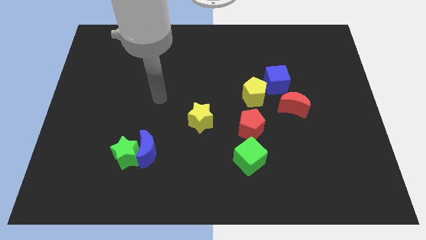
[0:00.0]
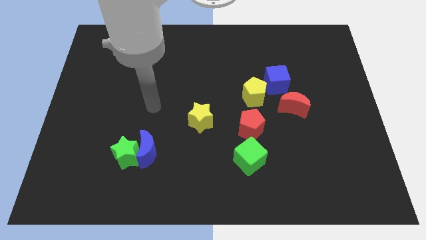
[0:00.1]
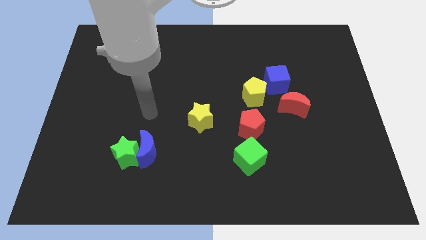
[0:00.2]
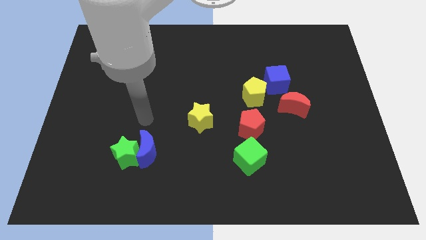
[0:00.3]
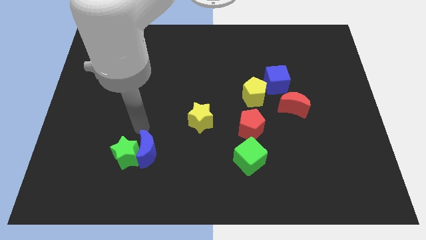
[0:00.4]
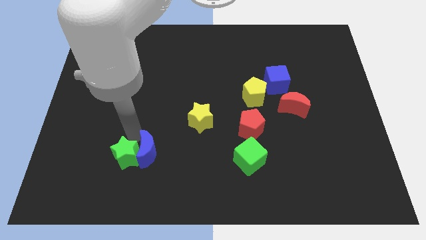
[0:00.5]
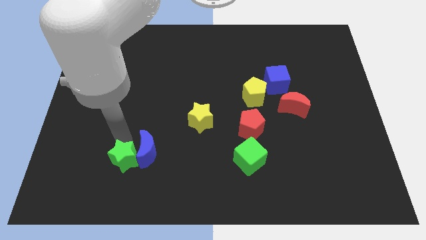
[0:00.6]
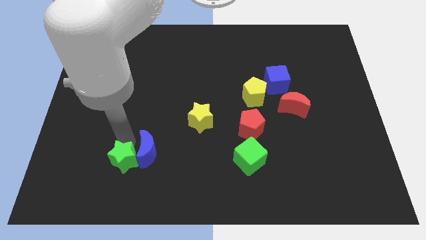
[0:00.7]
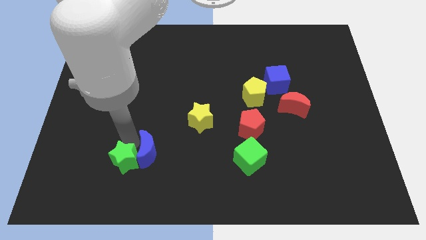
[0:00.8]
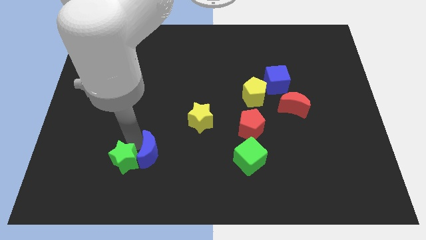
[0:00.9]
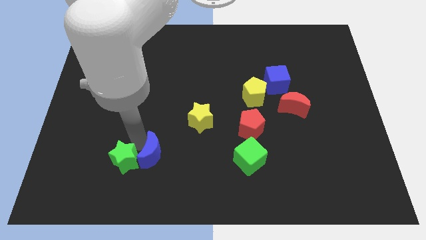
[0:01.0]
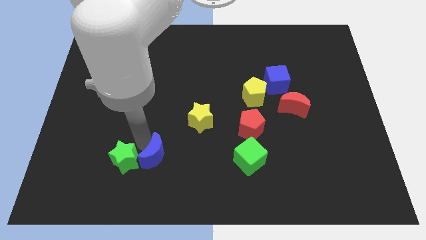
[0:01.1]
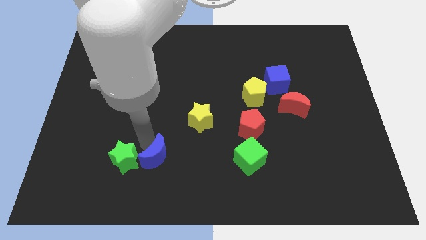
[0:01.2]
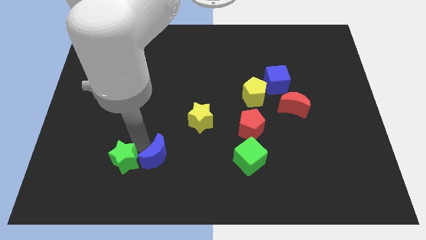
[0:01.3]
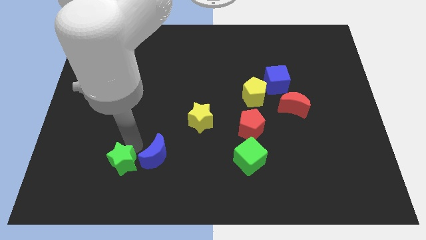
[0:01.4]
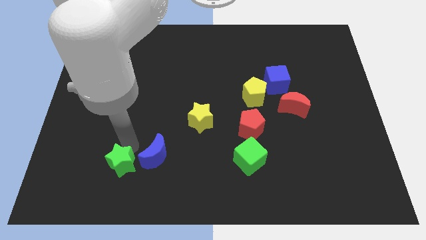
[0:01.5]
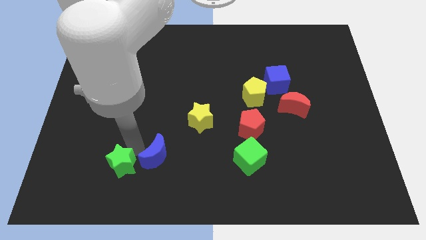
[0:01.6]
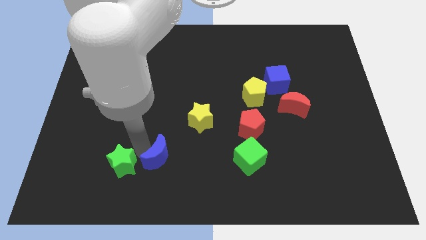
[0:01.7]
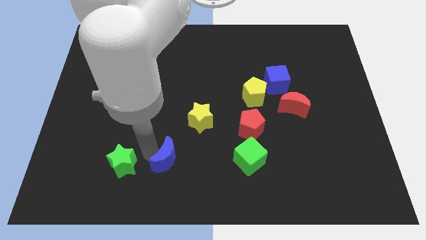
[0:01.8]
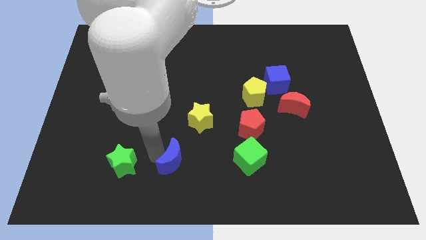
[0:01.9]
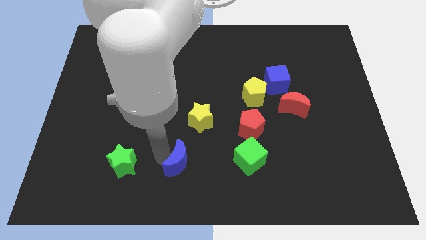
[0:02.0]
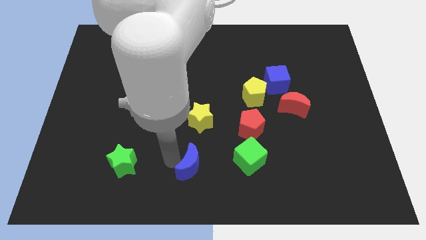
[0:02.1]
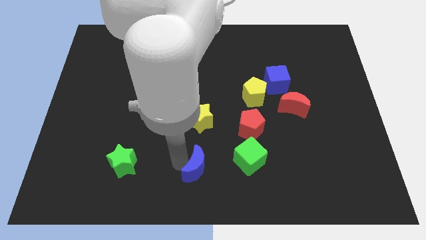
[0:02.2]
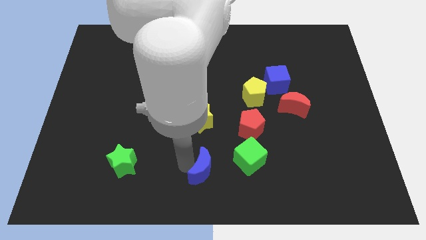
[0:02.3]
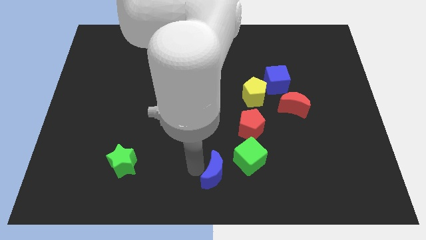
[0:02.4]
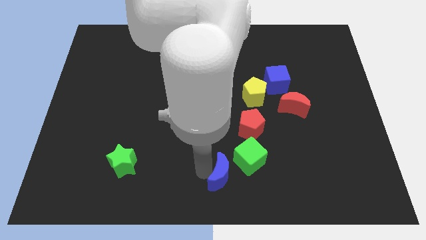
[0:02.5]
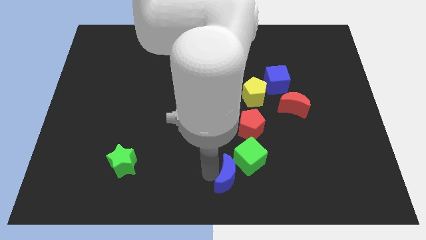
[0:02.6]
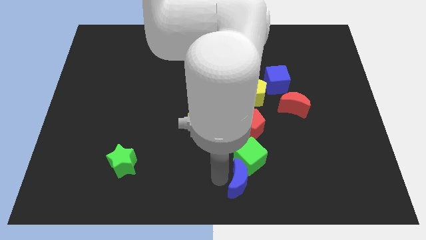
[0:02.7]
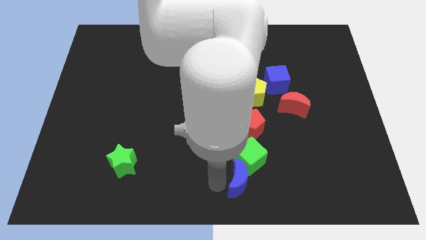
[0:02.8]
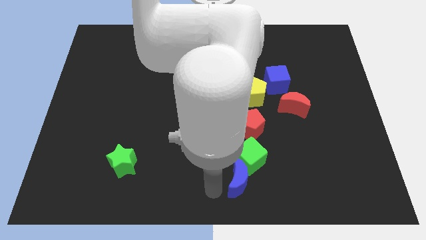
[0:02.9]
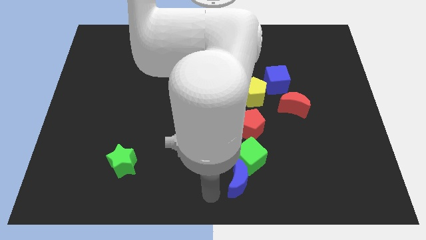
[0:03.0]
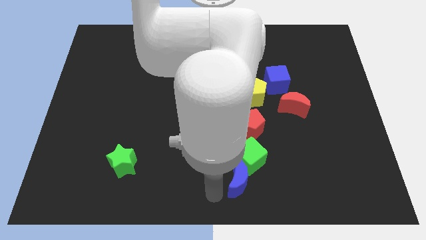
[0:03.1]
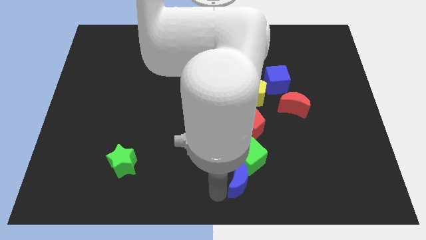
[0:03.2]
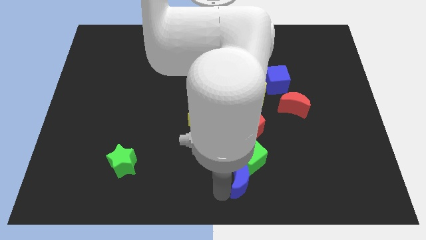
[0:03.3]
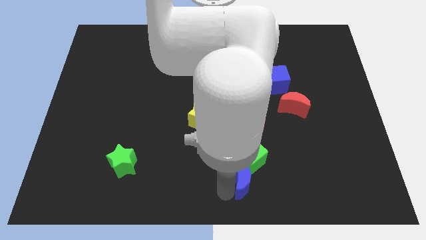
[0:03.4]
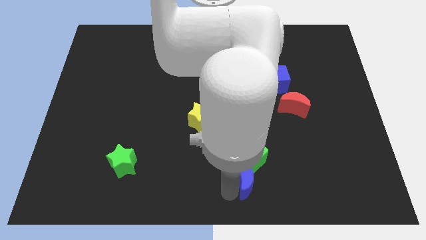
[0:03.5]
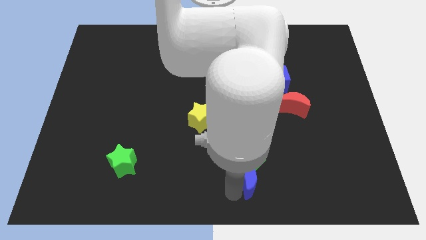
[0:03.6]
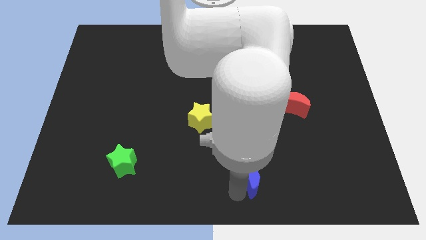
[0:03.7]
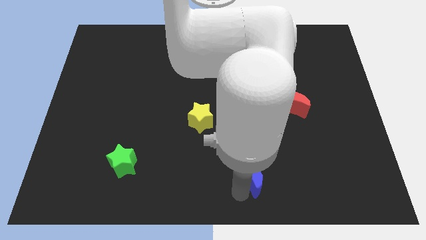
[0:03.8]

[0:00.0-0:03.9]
slide the blue moon to the right

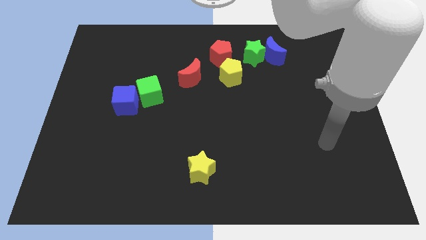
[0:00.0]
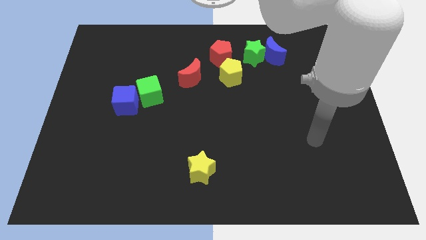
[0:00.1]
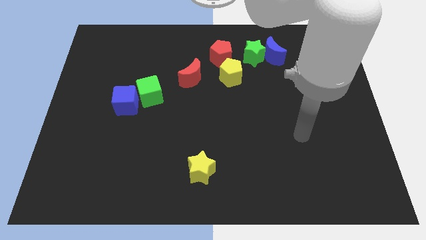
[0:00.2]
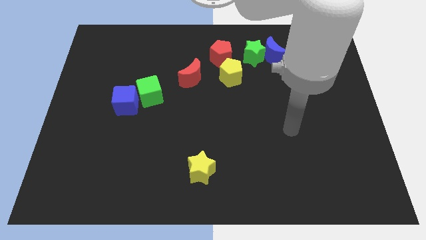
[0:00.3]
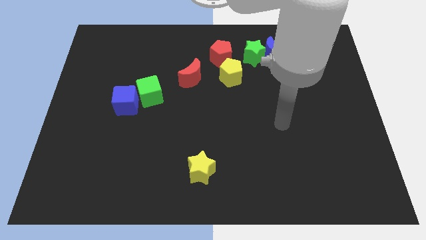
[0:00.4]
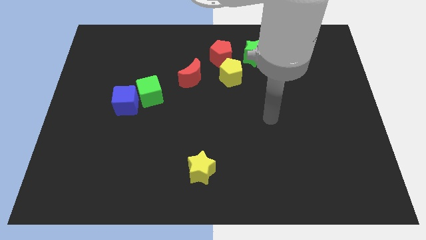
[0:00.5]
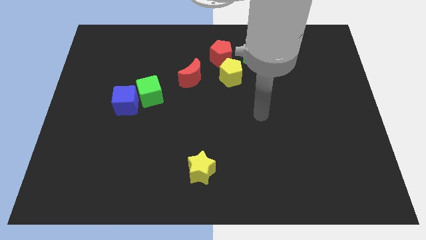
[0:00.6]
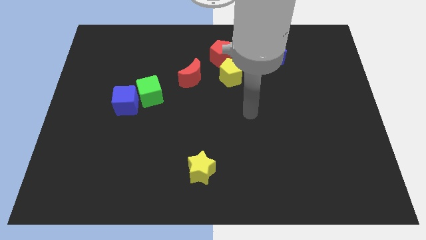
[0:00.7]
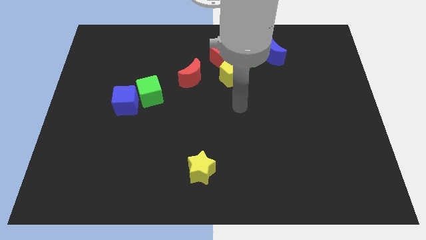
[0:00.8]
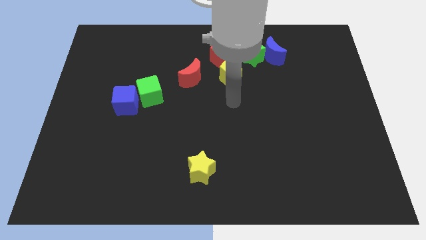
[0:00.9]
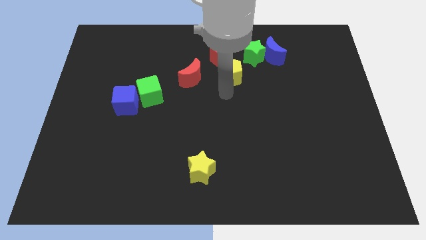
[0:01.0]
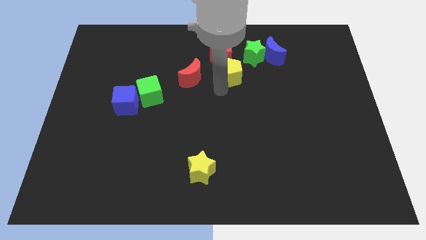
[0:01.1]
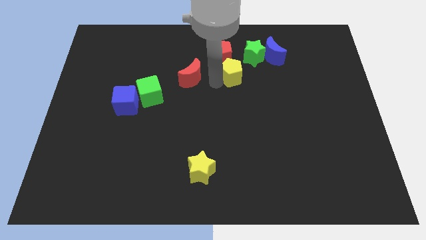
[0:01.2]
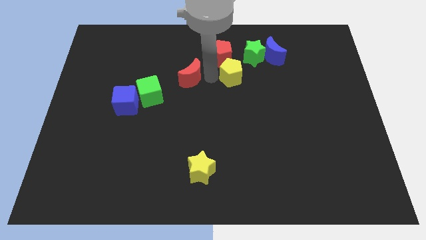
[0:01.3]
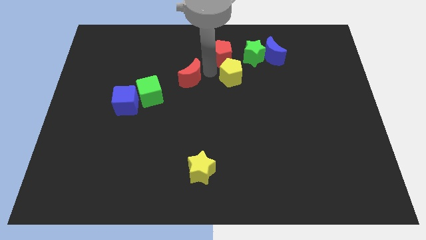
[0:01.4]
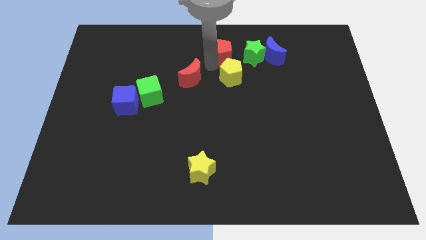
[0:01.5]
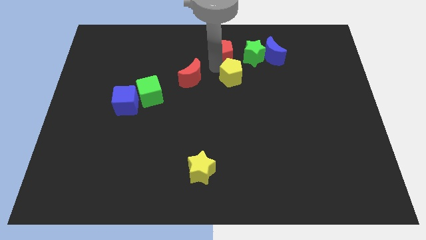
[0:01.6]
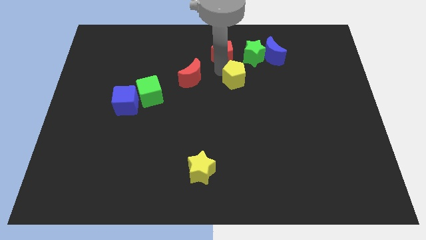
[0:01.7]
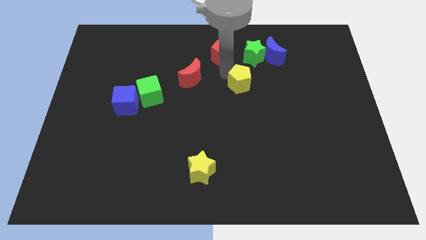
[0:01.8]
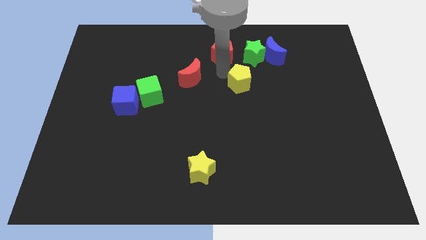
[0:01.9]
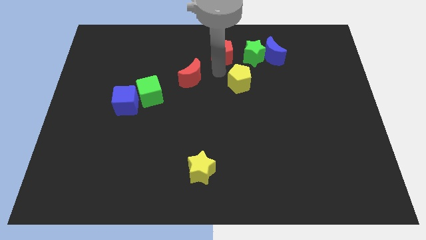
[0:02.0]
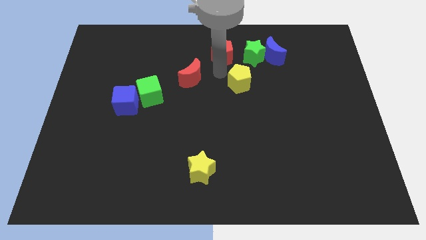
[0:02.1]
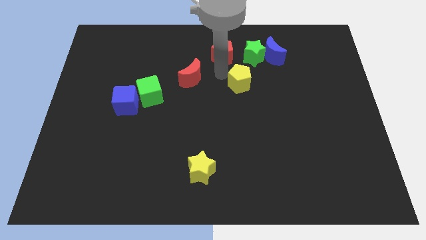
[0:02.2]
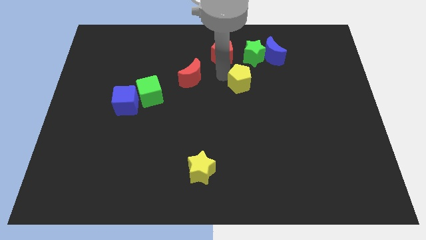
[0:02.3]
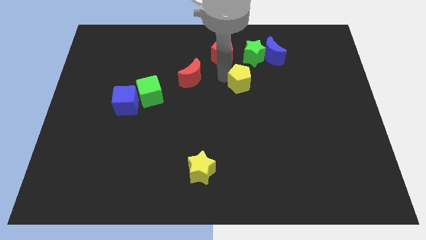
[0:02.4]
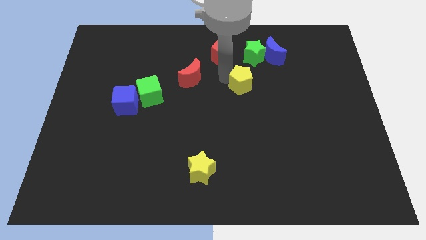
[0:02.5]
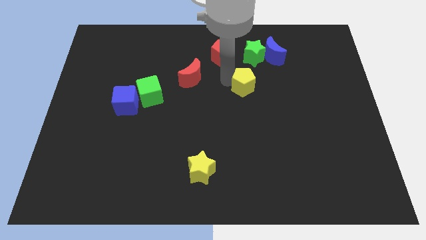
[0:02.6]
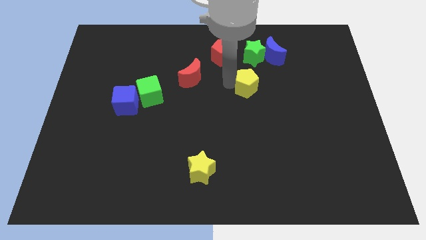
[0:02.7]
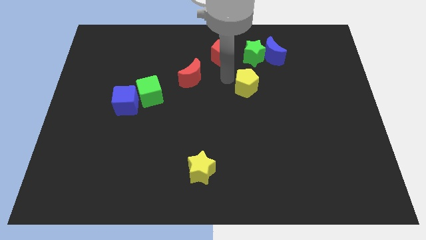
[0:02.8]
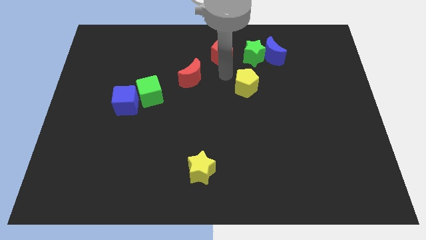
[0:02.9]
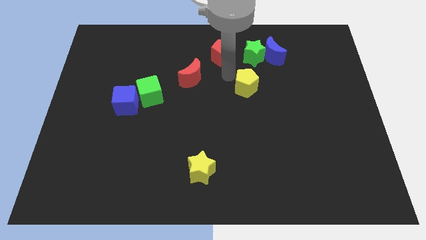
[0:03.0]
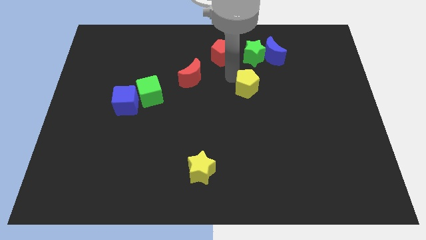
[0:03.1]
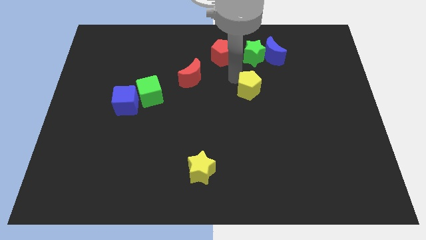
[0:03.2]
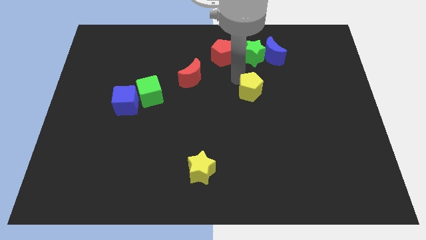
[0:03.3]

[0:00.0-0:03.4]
slide the yellow pentagon downwards and to the right diagonally slightly

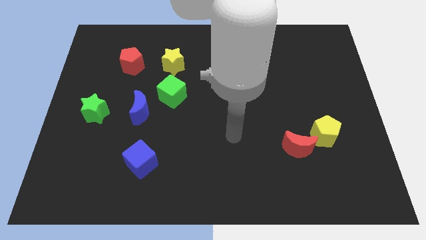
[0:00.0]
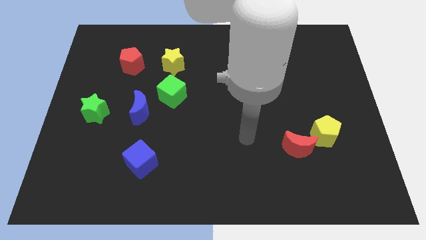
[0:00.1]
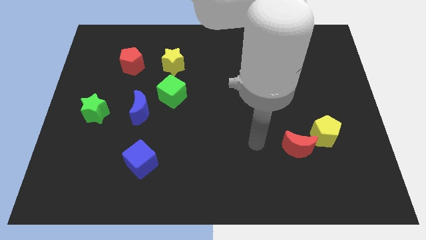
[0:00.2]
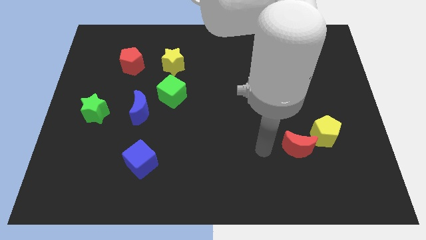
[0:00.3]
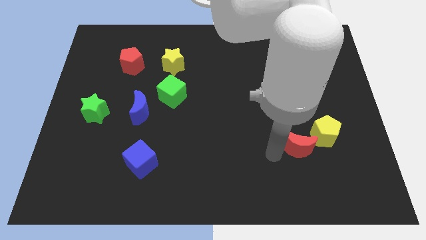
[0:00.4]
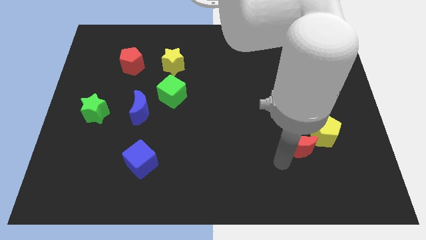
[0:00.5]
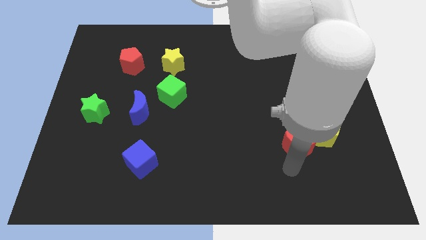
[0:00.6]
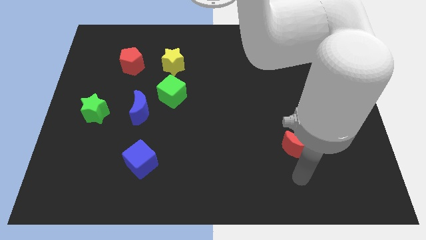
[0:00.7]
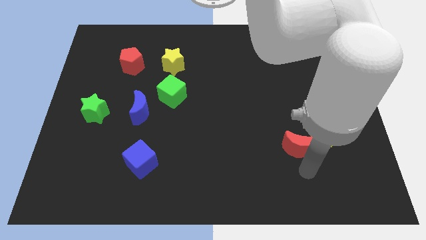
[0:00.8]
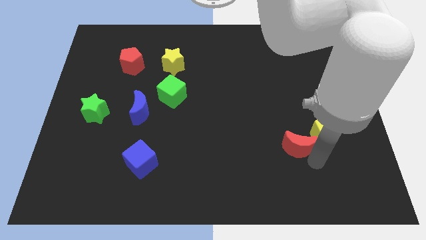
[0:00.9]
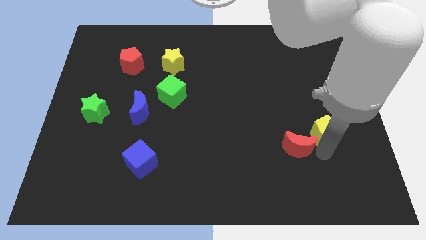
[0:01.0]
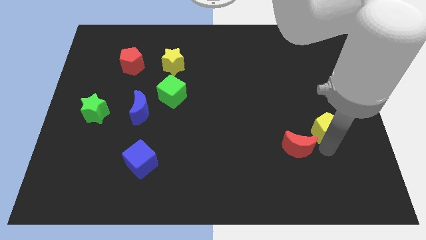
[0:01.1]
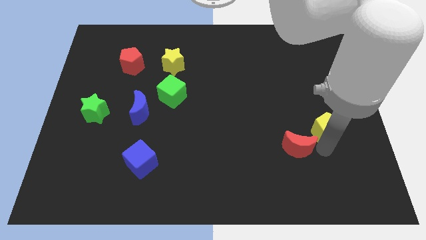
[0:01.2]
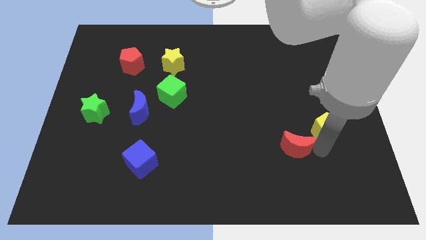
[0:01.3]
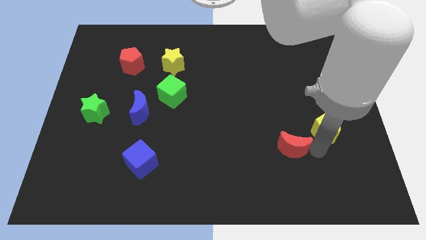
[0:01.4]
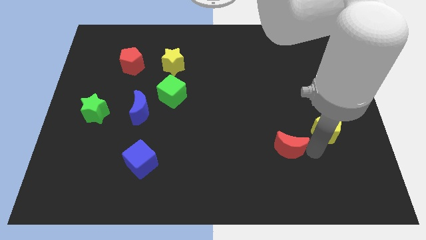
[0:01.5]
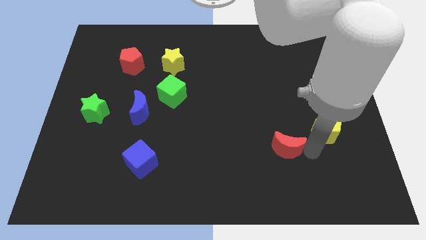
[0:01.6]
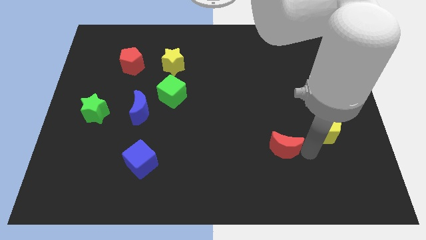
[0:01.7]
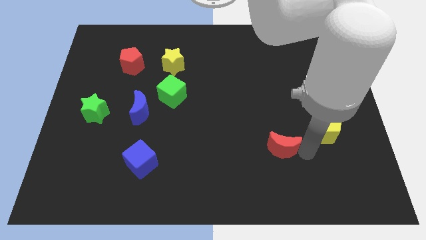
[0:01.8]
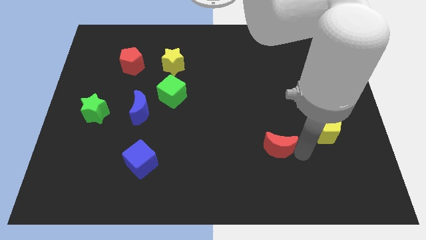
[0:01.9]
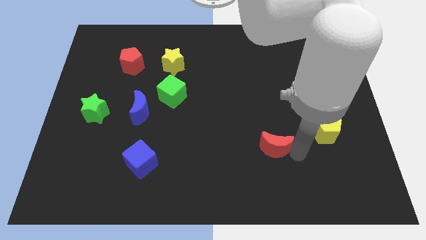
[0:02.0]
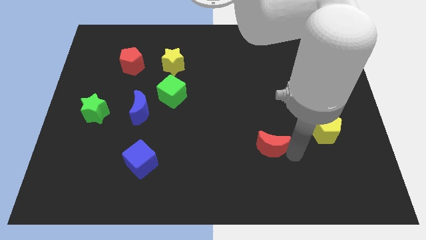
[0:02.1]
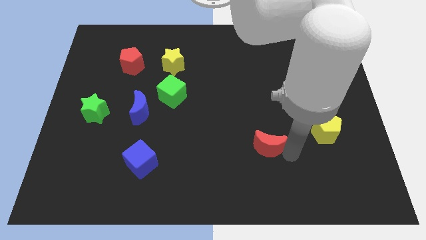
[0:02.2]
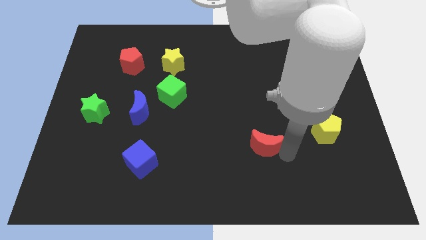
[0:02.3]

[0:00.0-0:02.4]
move the red moon left somewhat
